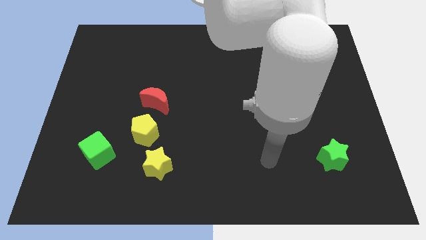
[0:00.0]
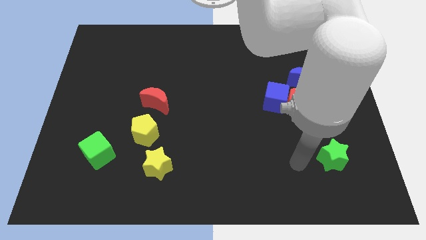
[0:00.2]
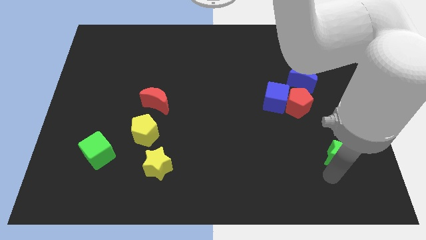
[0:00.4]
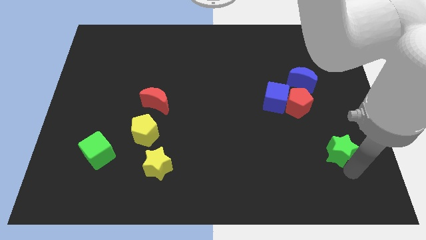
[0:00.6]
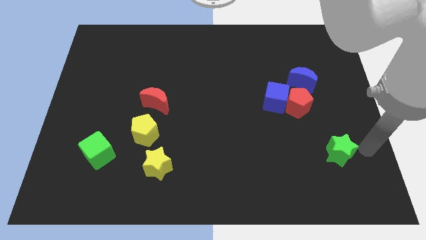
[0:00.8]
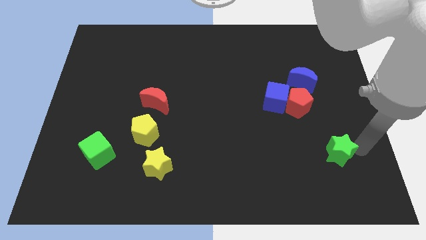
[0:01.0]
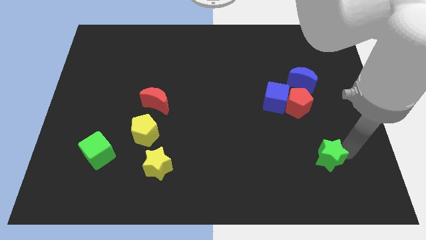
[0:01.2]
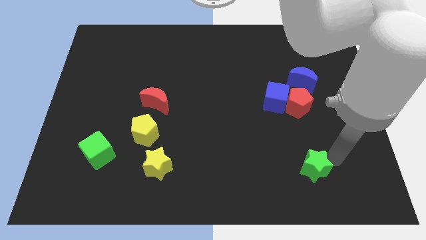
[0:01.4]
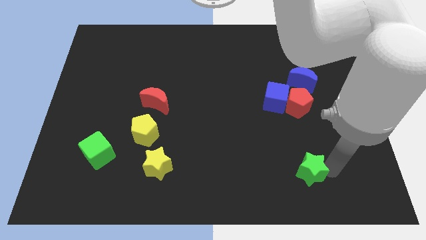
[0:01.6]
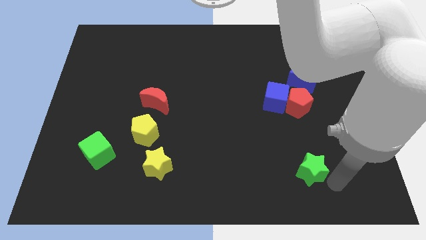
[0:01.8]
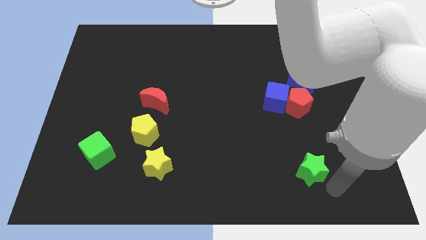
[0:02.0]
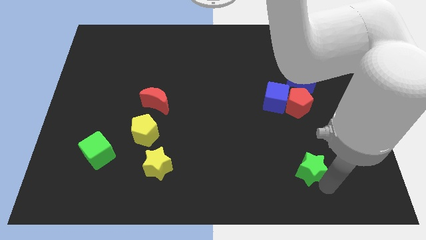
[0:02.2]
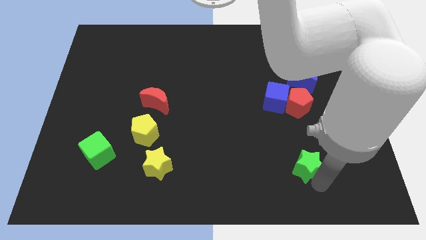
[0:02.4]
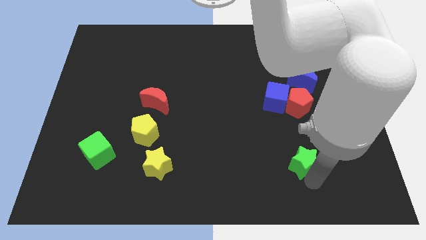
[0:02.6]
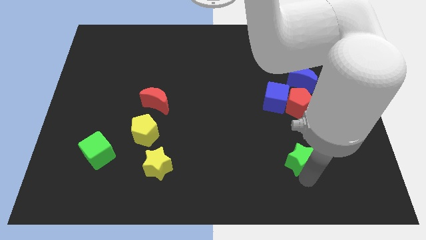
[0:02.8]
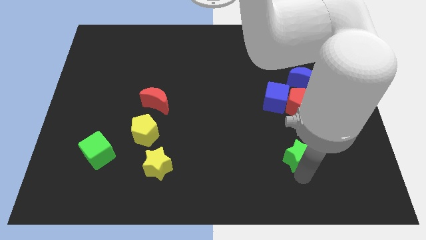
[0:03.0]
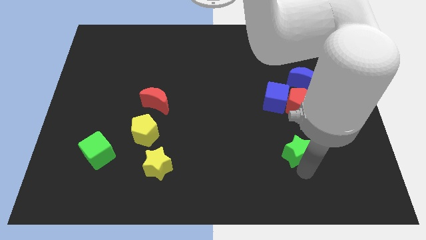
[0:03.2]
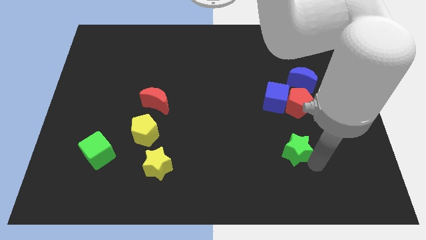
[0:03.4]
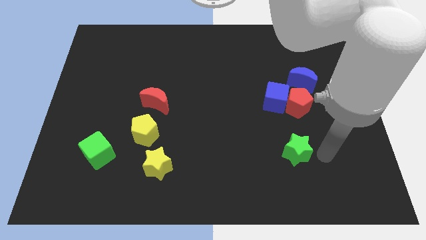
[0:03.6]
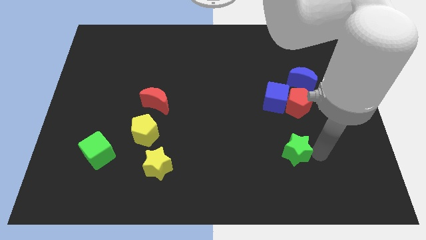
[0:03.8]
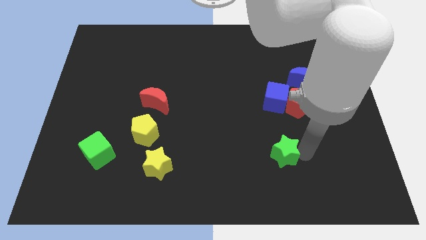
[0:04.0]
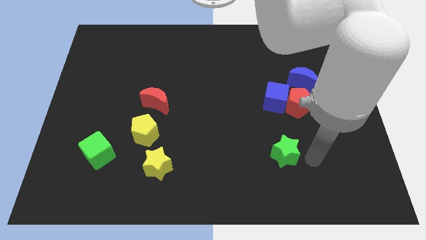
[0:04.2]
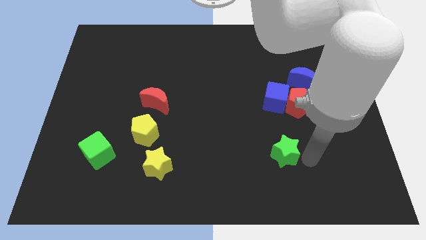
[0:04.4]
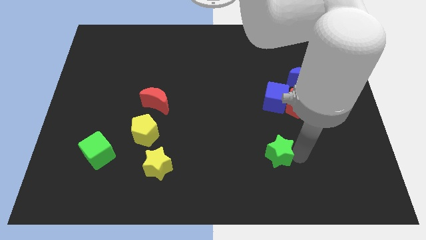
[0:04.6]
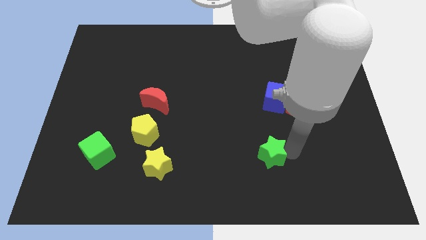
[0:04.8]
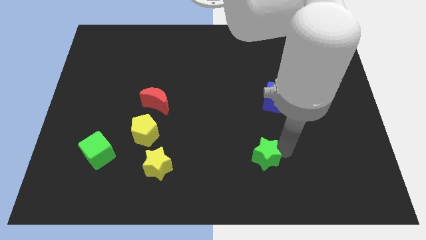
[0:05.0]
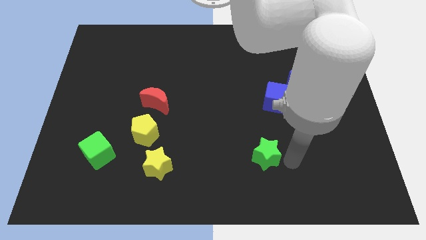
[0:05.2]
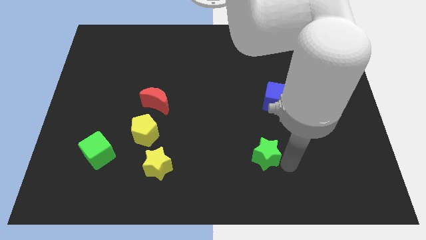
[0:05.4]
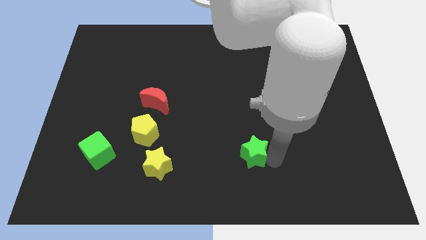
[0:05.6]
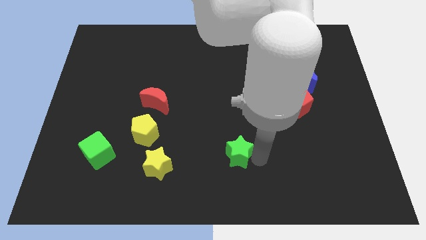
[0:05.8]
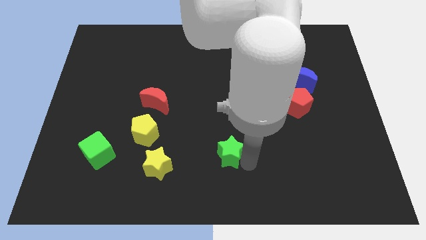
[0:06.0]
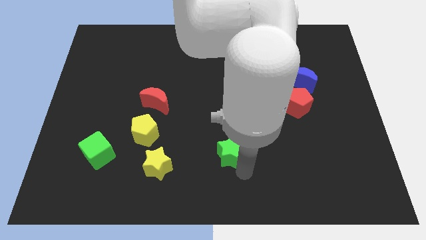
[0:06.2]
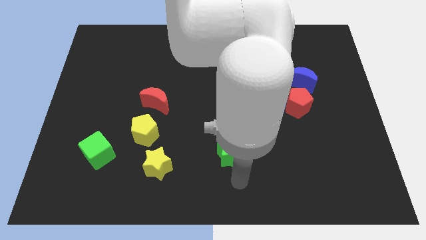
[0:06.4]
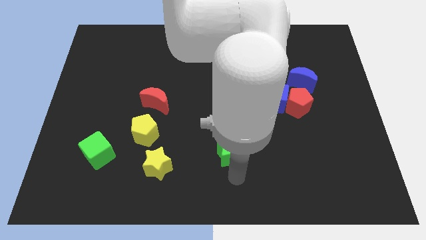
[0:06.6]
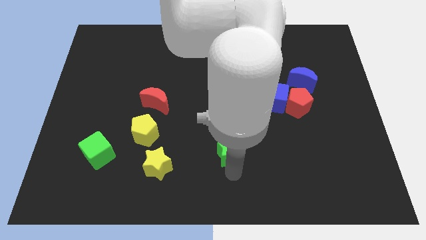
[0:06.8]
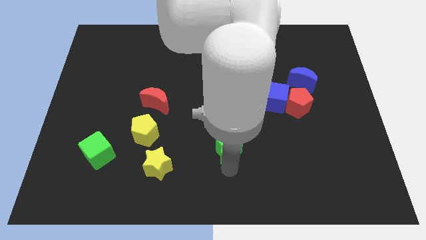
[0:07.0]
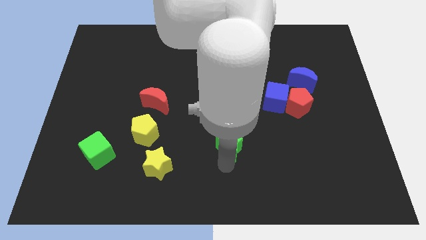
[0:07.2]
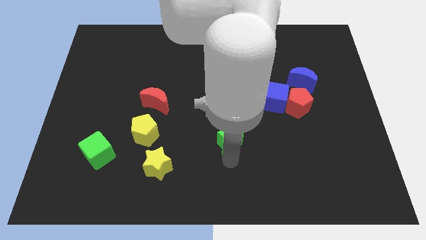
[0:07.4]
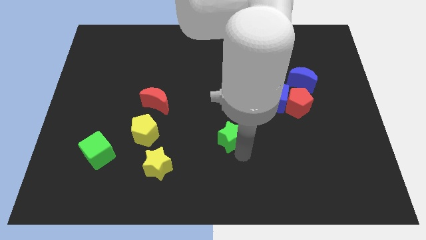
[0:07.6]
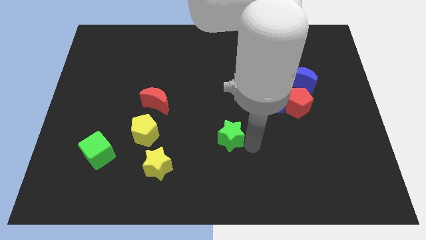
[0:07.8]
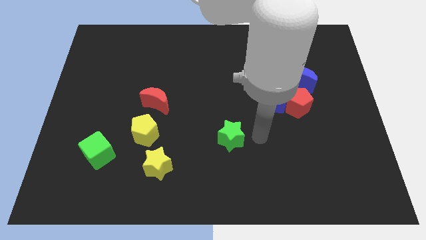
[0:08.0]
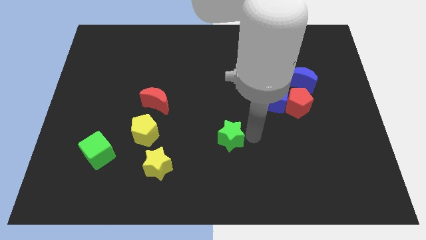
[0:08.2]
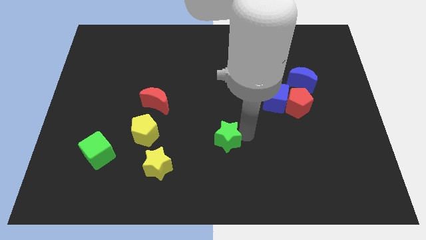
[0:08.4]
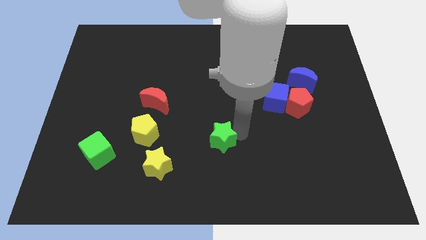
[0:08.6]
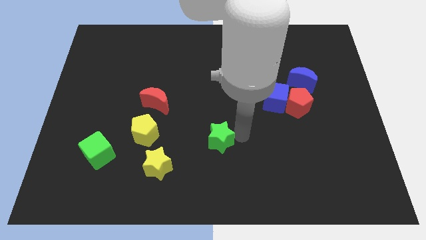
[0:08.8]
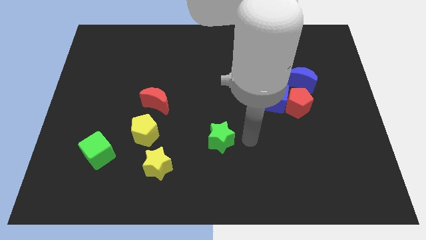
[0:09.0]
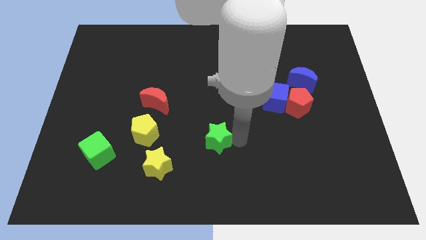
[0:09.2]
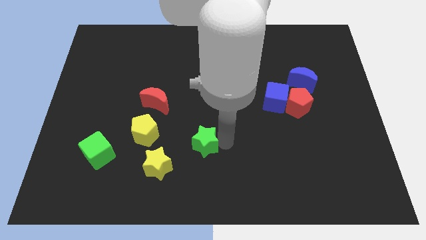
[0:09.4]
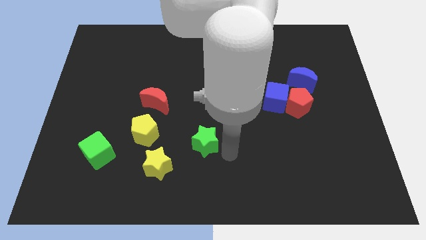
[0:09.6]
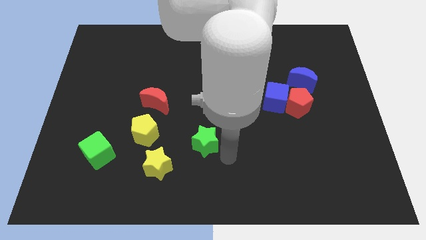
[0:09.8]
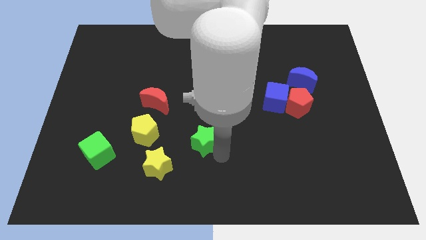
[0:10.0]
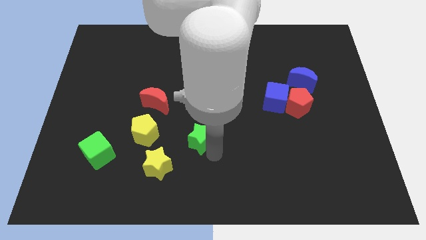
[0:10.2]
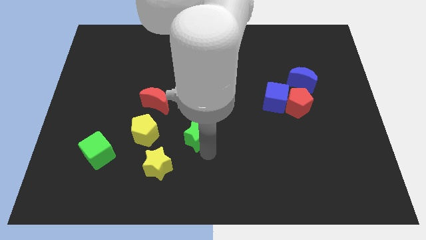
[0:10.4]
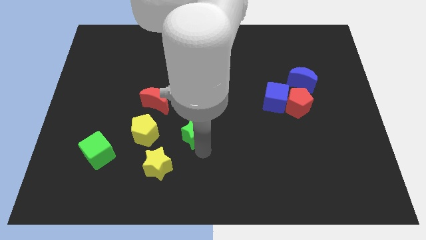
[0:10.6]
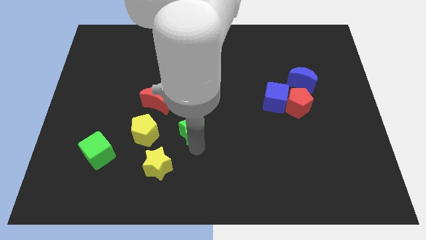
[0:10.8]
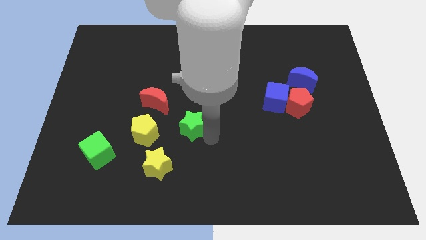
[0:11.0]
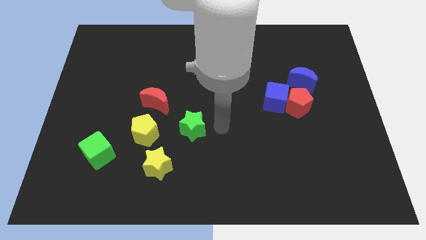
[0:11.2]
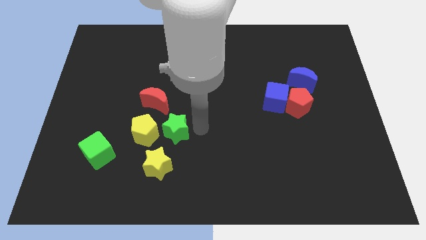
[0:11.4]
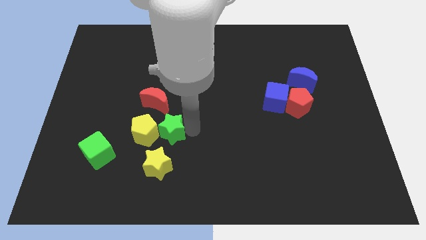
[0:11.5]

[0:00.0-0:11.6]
slide the green star to the yellow pentagon

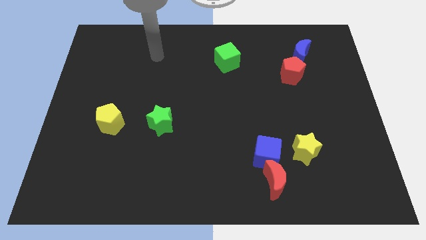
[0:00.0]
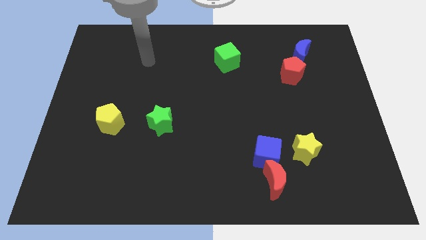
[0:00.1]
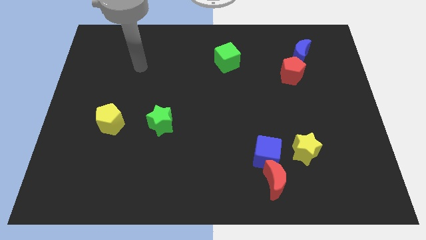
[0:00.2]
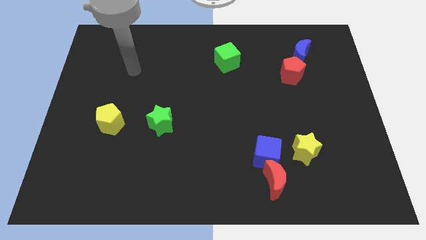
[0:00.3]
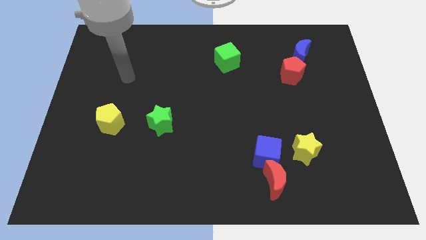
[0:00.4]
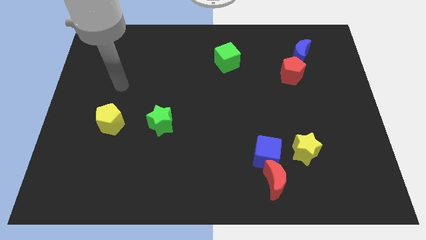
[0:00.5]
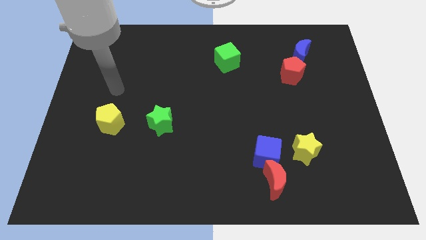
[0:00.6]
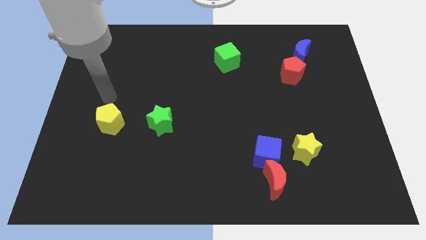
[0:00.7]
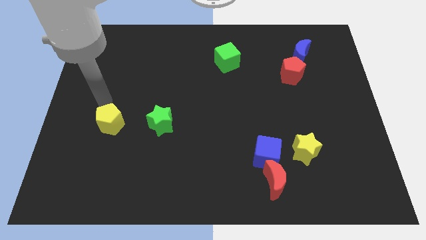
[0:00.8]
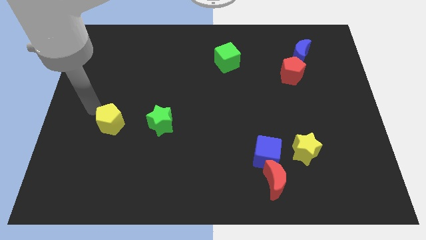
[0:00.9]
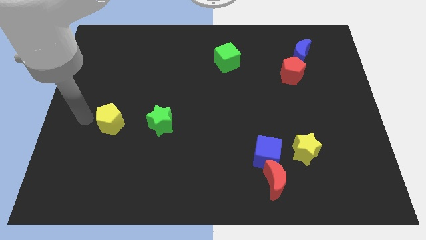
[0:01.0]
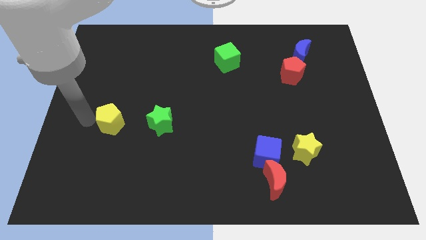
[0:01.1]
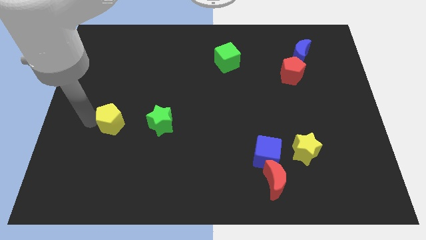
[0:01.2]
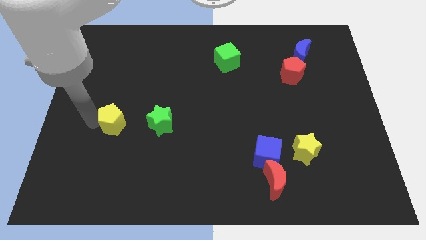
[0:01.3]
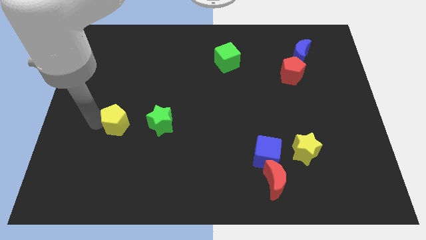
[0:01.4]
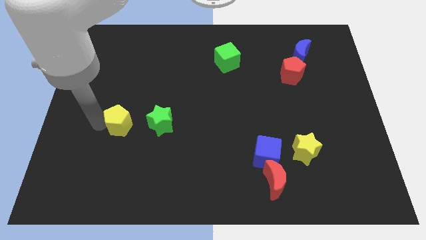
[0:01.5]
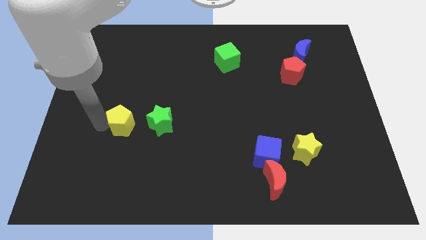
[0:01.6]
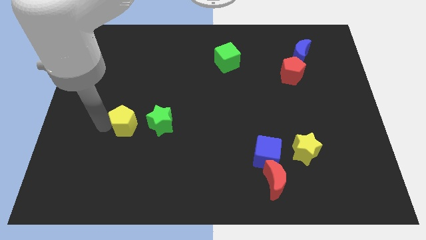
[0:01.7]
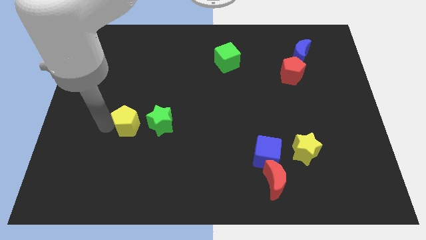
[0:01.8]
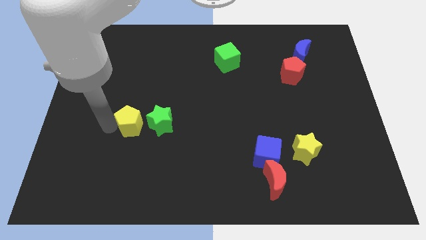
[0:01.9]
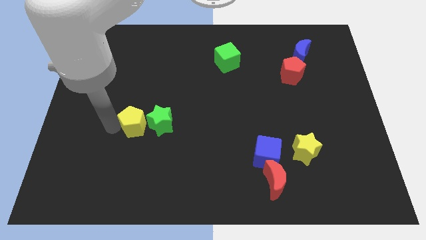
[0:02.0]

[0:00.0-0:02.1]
move the yellow pentagon next to the green star
